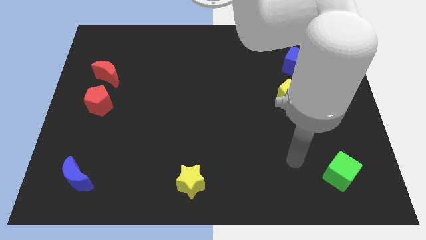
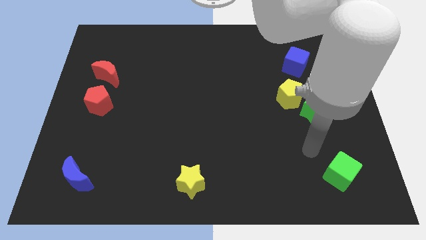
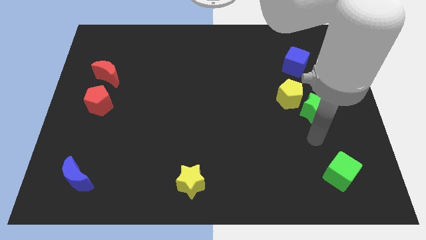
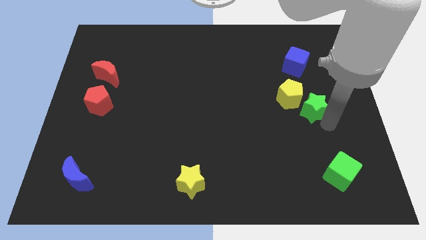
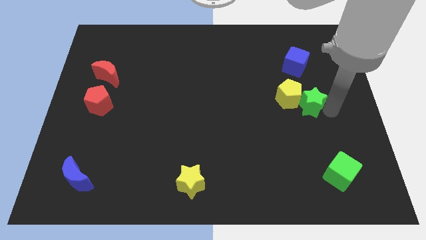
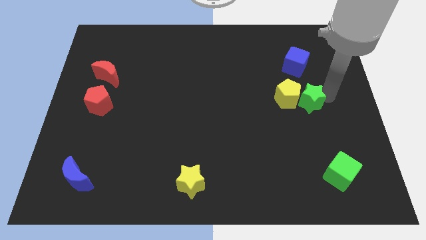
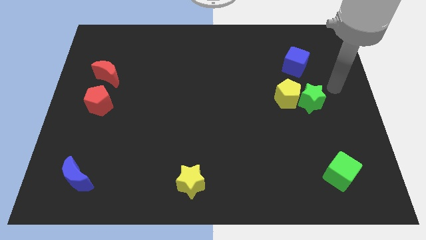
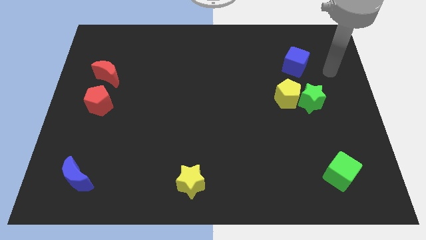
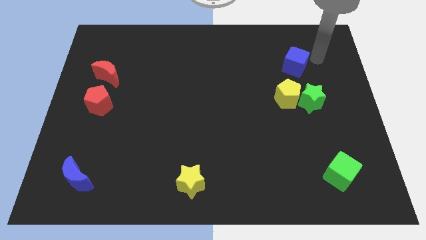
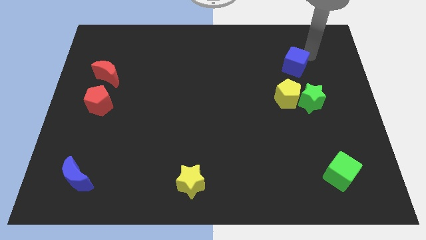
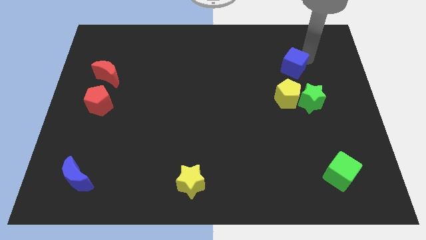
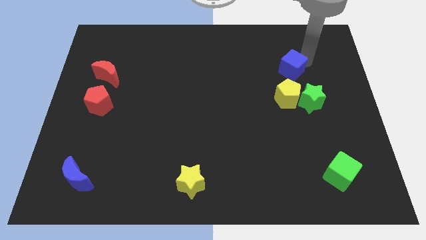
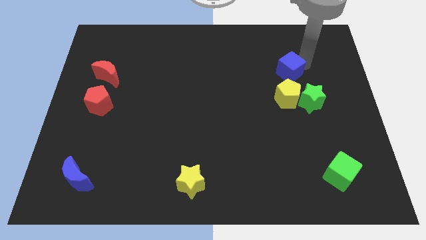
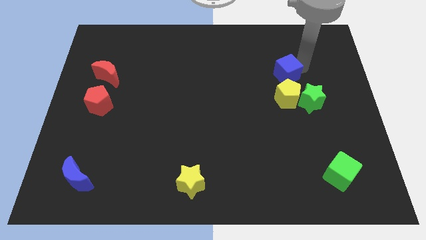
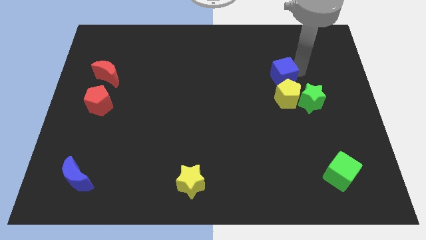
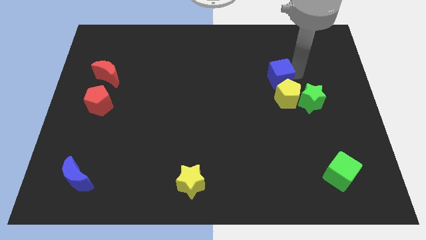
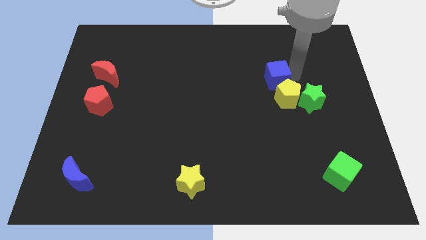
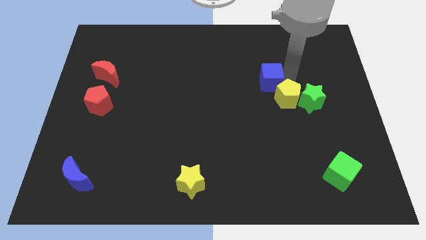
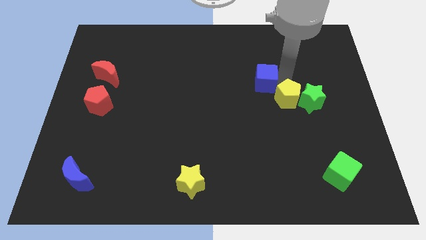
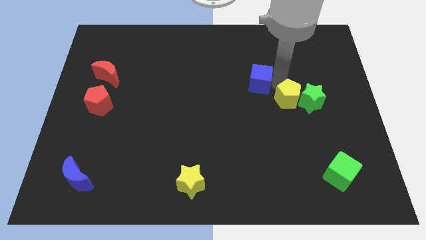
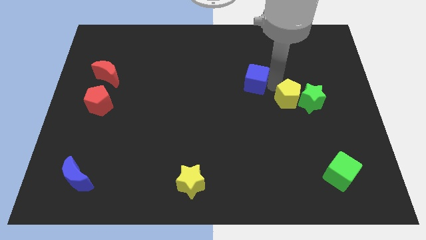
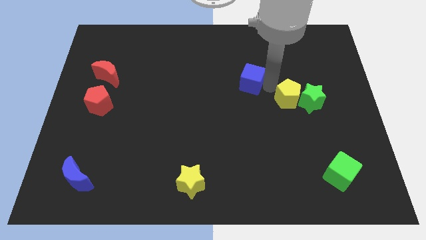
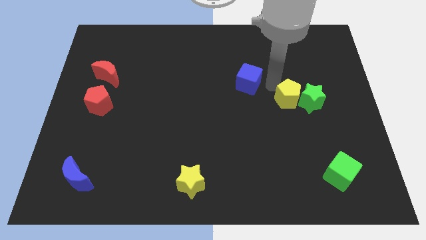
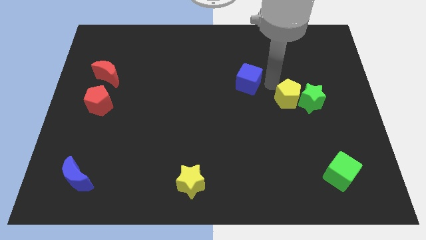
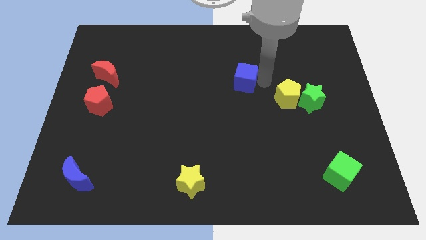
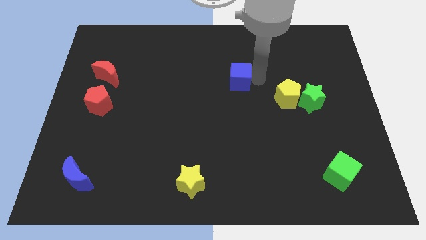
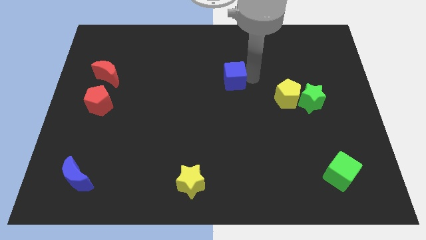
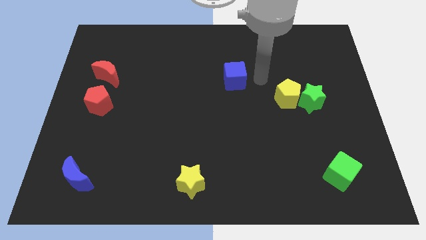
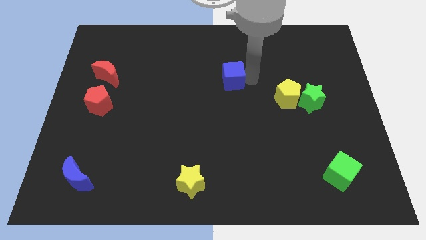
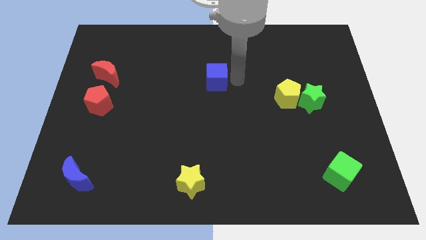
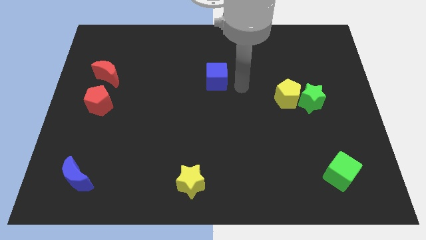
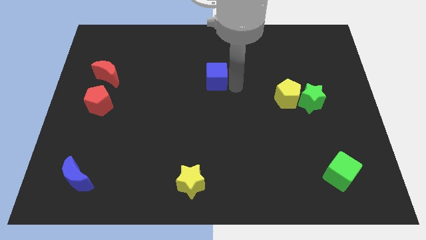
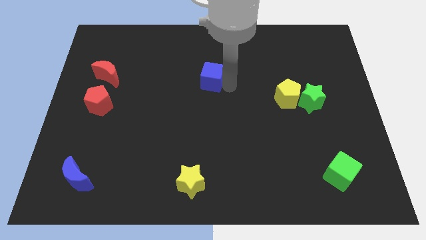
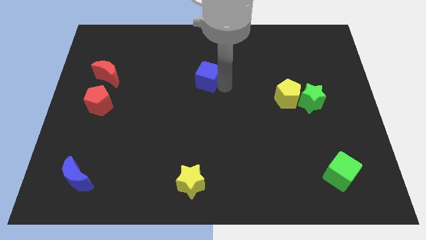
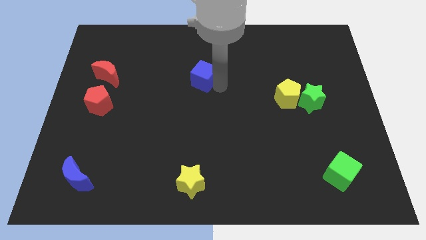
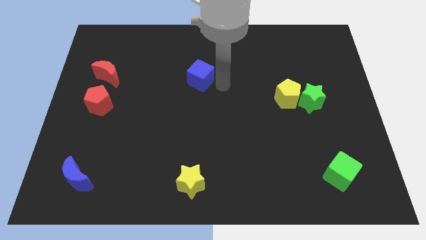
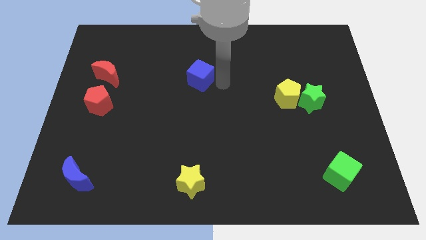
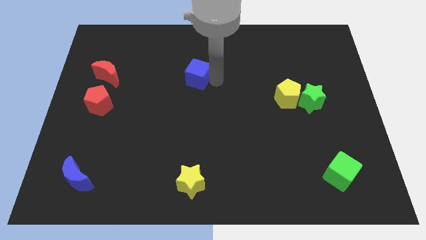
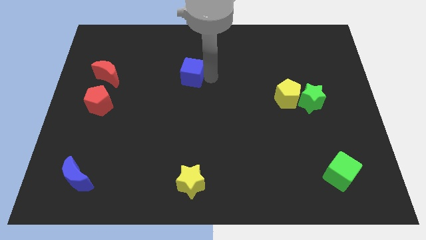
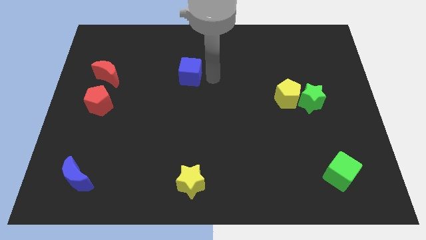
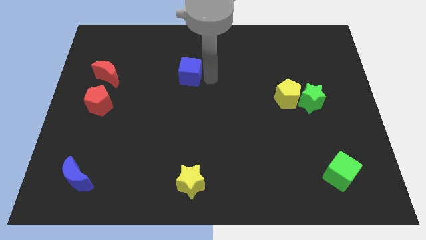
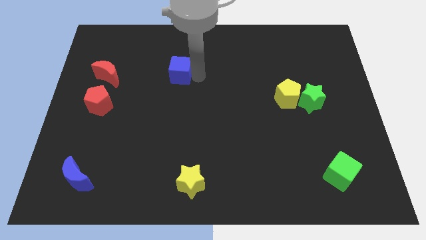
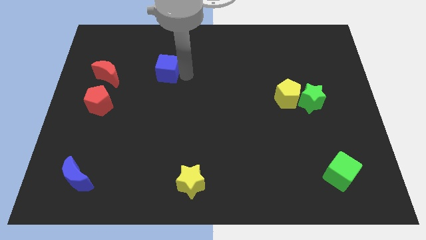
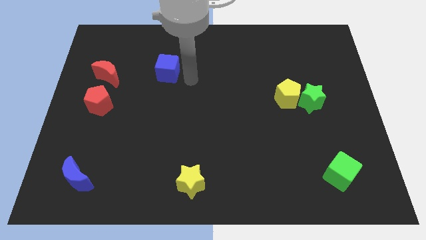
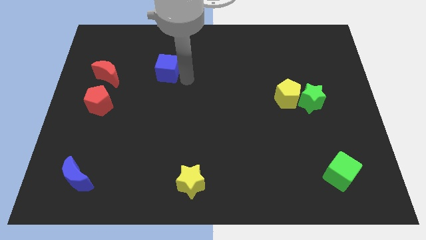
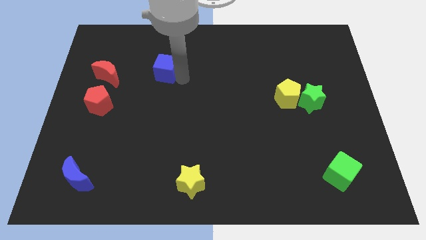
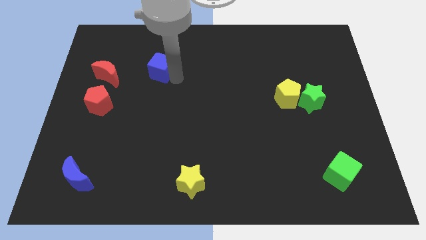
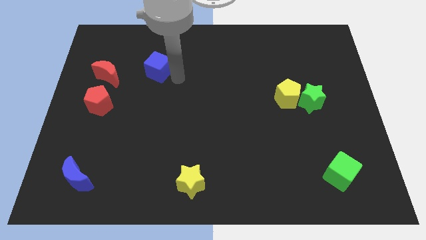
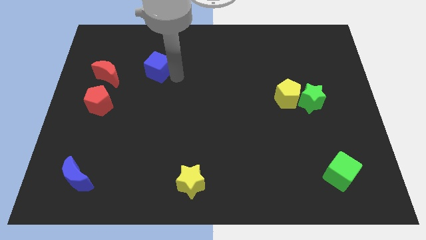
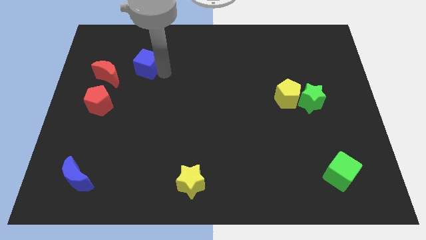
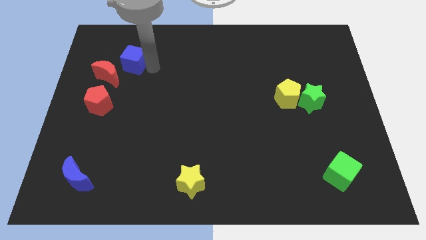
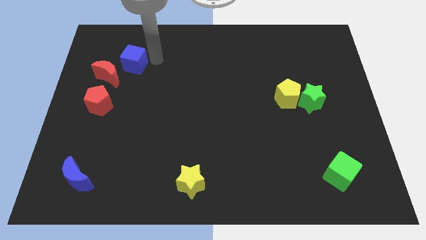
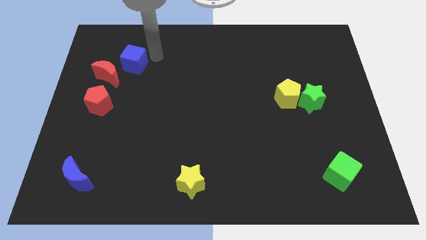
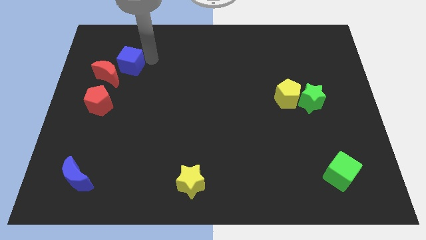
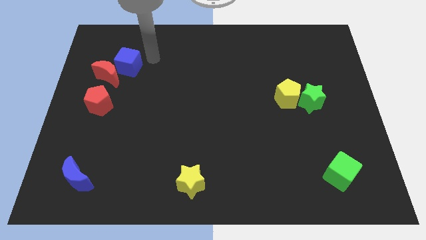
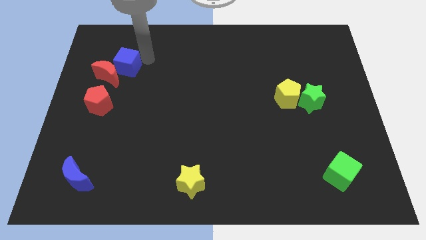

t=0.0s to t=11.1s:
put the blue cube to the top side of the red pentagon
